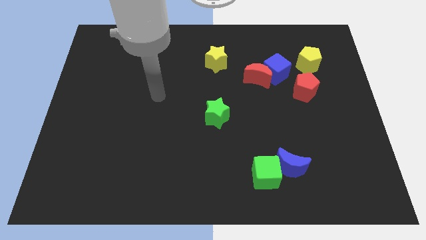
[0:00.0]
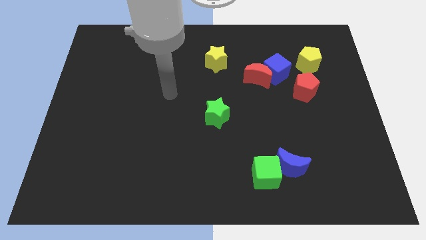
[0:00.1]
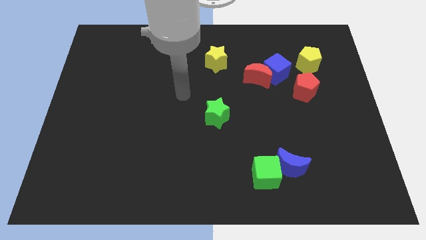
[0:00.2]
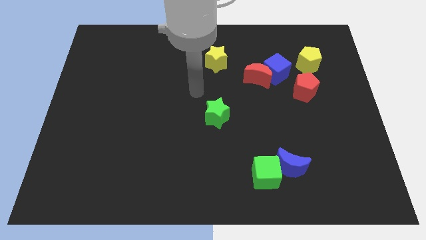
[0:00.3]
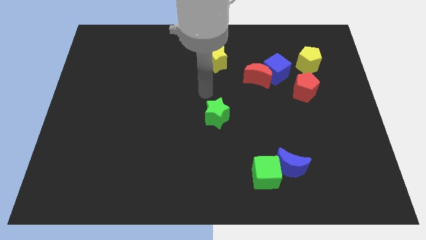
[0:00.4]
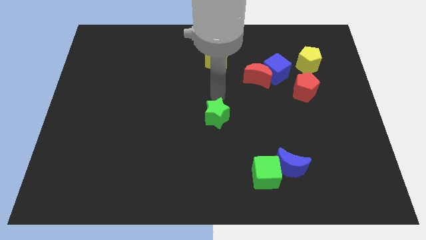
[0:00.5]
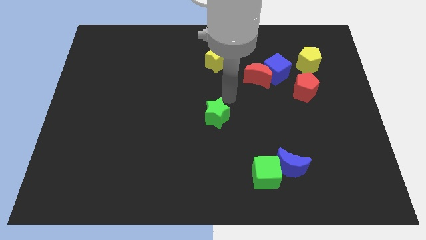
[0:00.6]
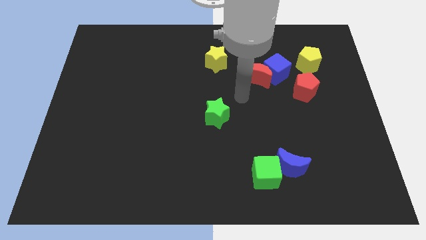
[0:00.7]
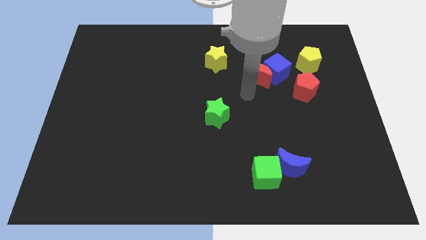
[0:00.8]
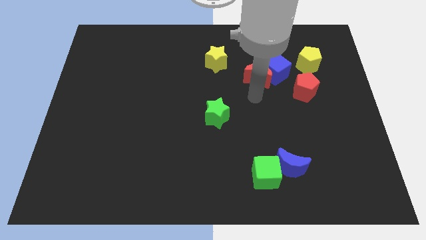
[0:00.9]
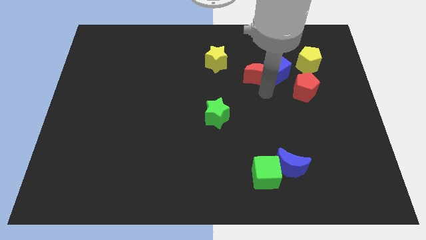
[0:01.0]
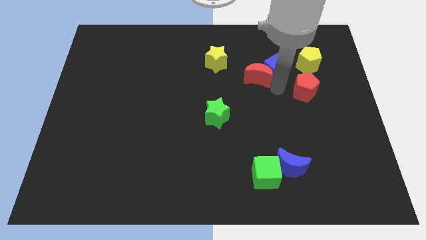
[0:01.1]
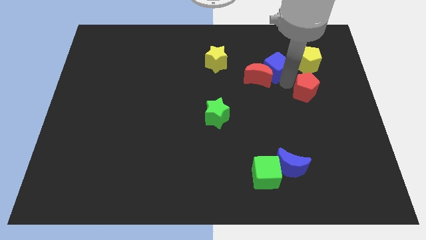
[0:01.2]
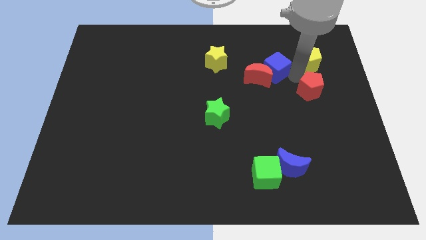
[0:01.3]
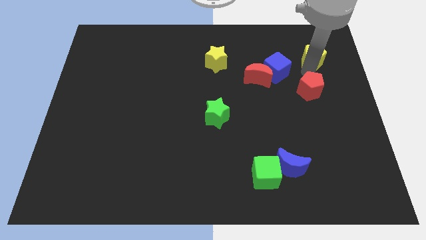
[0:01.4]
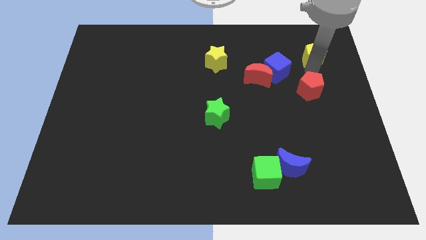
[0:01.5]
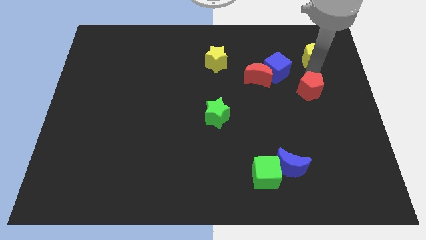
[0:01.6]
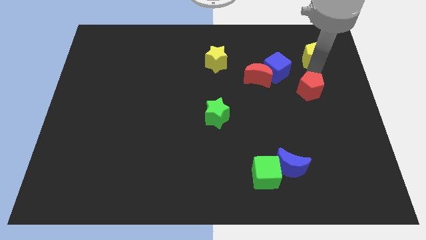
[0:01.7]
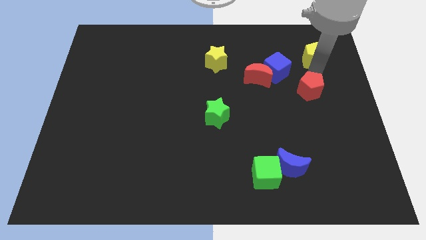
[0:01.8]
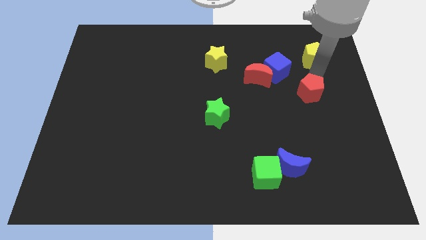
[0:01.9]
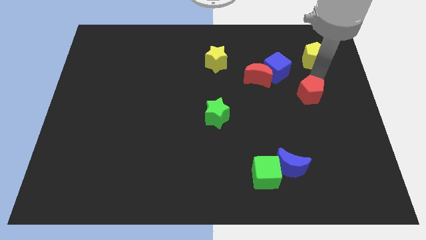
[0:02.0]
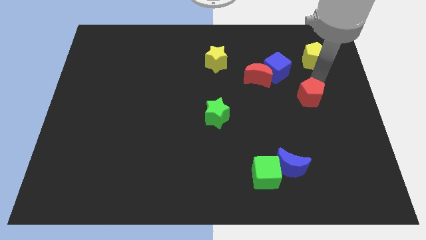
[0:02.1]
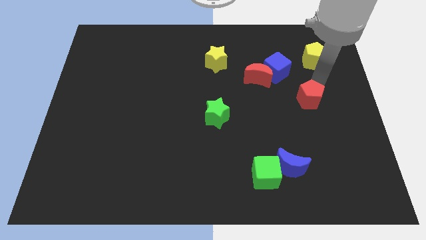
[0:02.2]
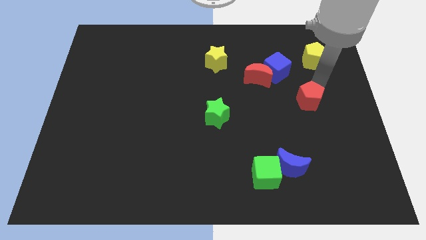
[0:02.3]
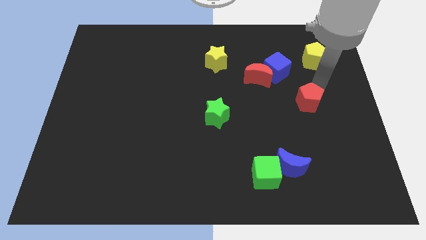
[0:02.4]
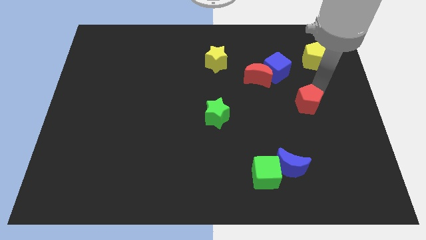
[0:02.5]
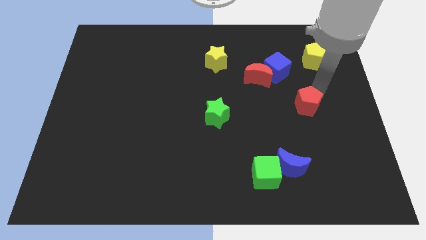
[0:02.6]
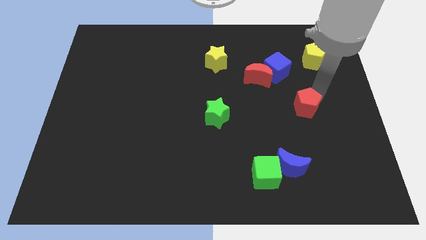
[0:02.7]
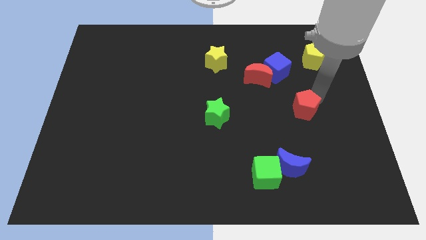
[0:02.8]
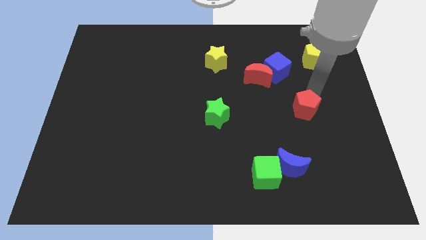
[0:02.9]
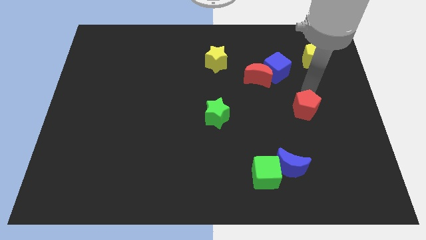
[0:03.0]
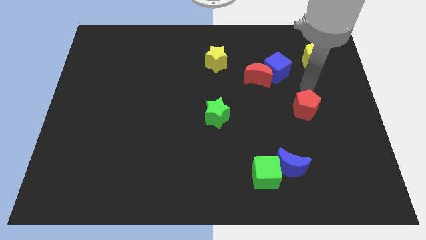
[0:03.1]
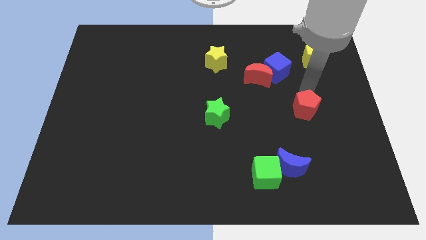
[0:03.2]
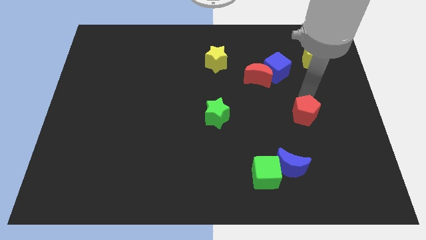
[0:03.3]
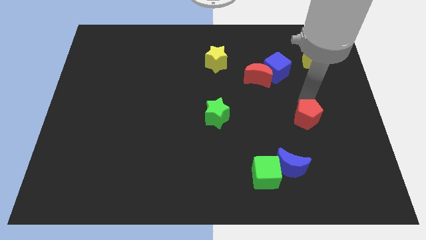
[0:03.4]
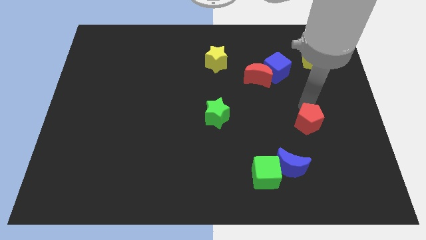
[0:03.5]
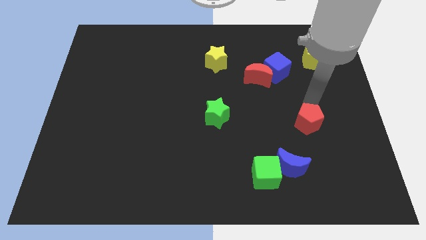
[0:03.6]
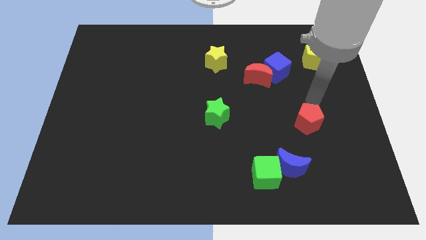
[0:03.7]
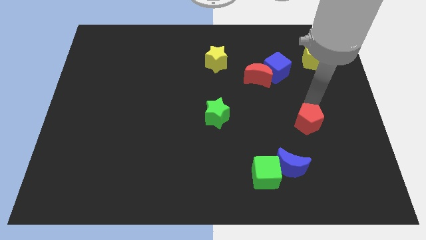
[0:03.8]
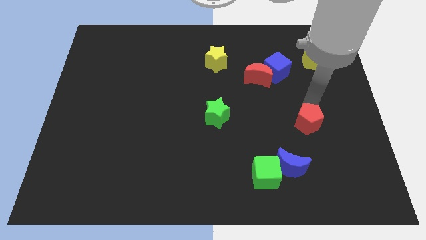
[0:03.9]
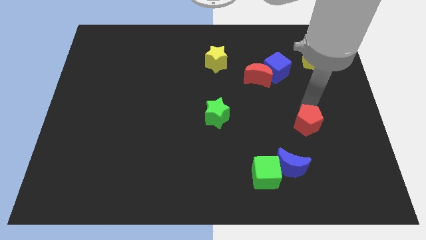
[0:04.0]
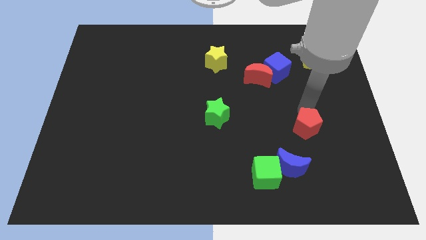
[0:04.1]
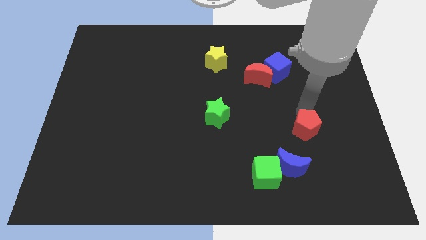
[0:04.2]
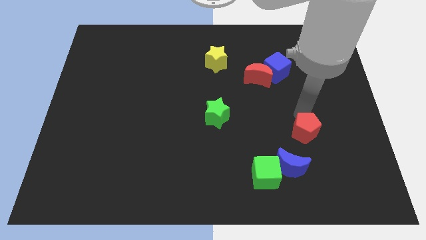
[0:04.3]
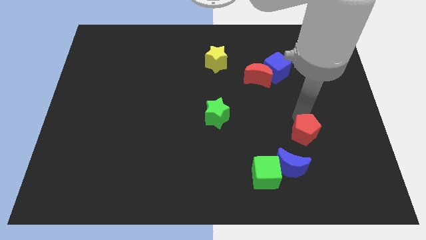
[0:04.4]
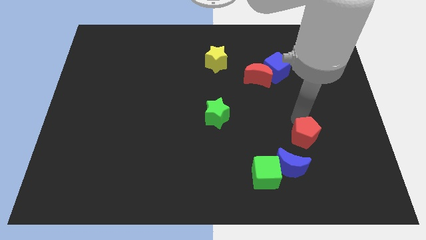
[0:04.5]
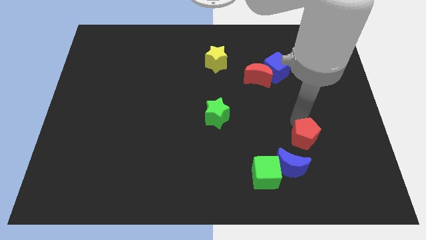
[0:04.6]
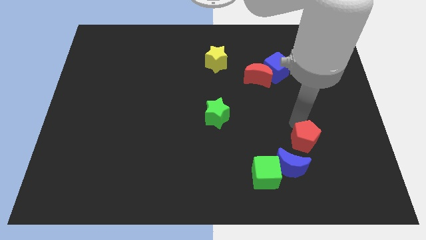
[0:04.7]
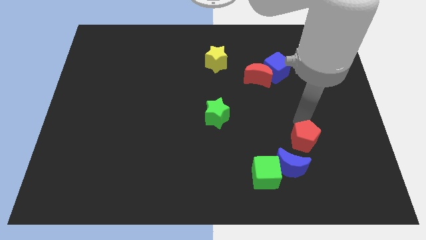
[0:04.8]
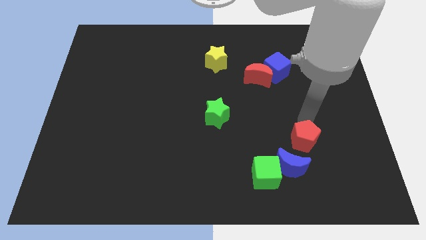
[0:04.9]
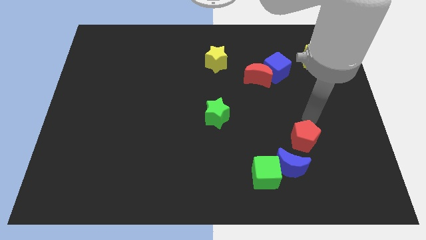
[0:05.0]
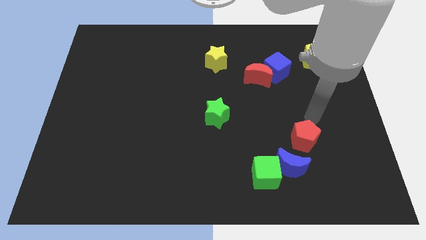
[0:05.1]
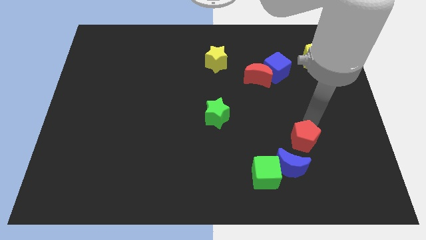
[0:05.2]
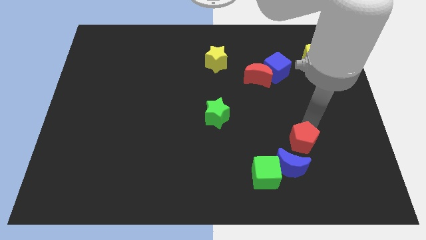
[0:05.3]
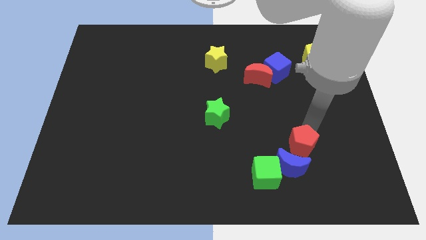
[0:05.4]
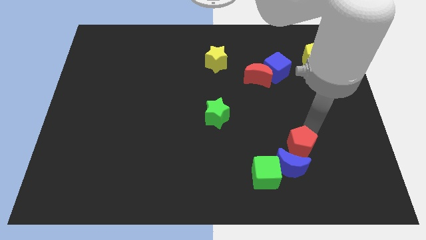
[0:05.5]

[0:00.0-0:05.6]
move the red pentagon to the blue moon

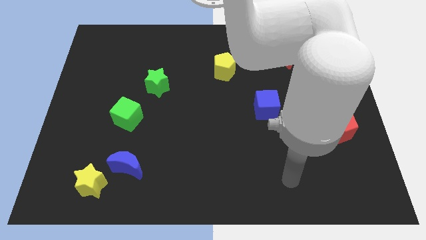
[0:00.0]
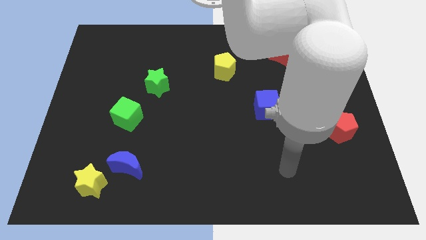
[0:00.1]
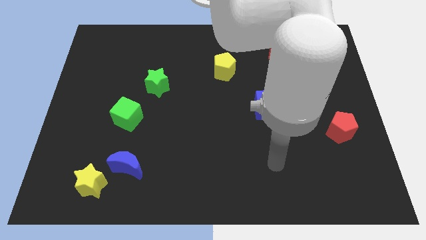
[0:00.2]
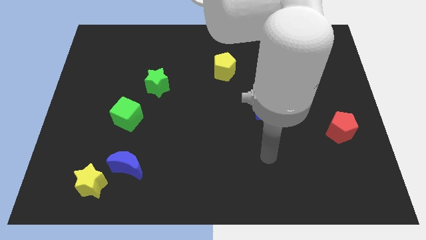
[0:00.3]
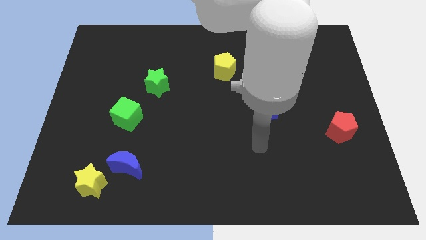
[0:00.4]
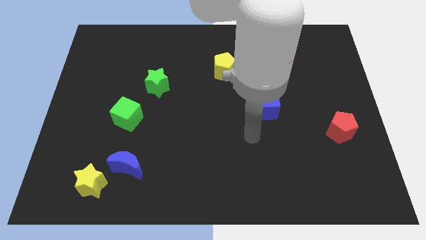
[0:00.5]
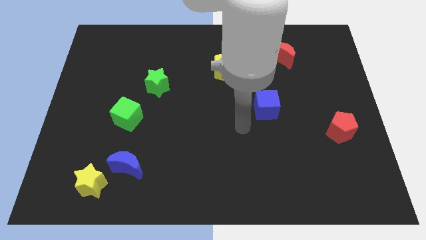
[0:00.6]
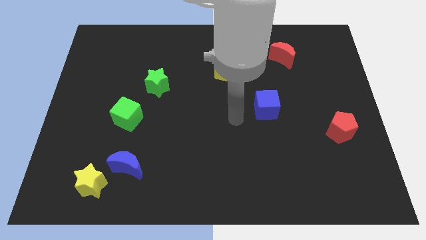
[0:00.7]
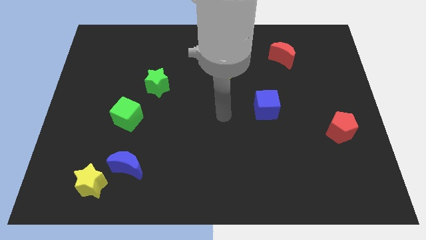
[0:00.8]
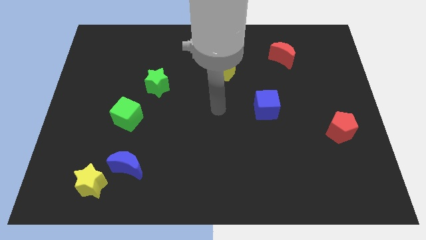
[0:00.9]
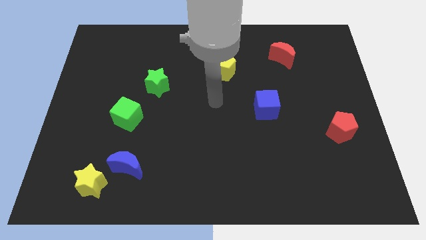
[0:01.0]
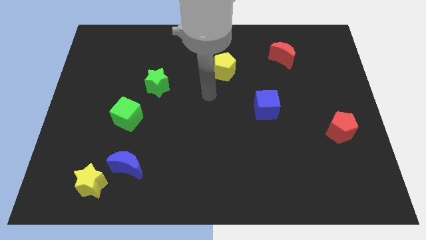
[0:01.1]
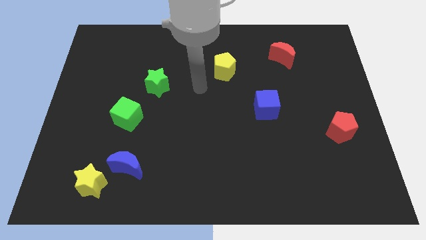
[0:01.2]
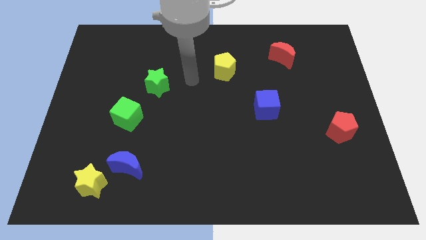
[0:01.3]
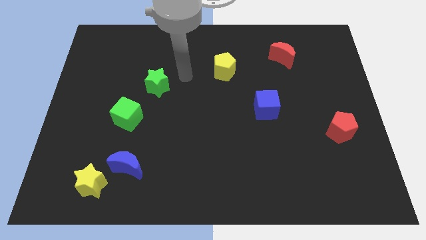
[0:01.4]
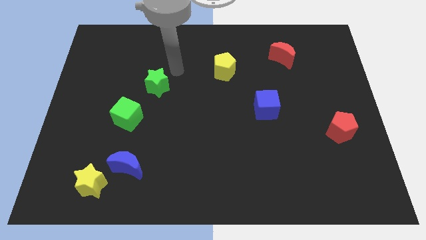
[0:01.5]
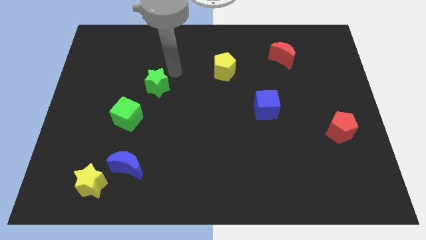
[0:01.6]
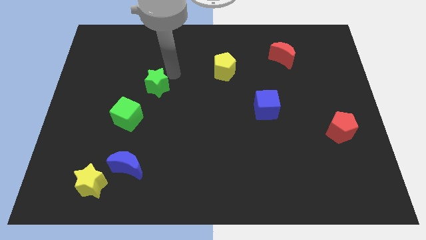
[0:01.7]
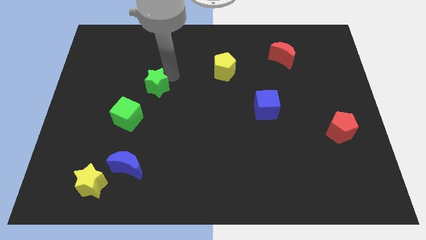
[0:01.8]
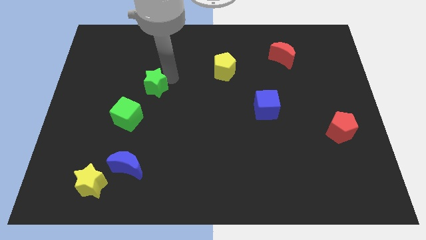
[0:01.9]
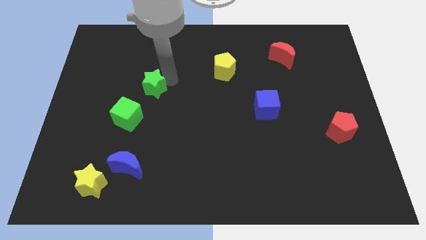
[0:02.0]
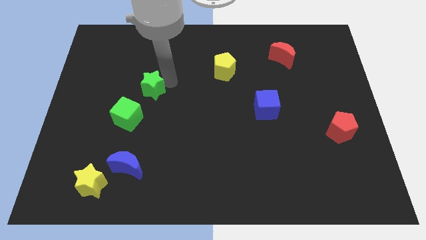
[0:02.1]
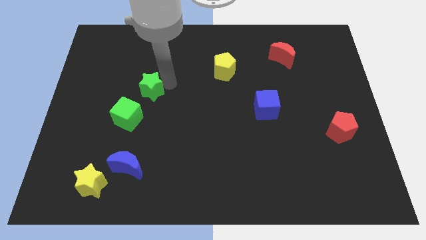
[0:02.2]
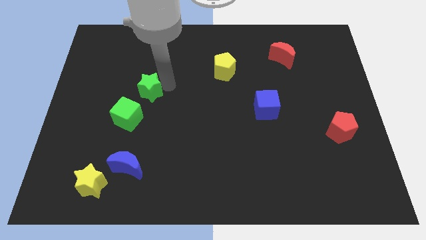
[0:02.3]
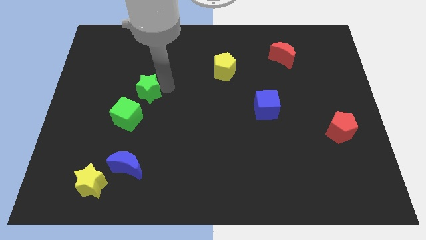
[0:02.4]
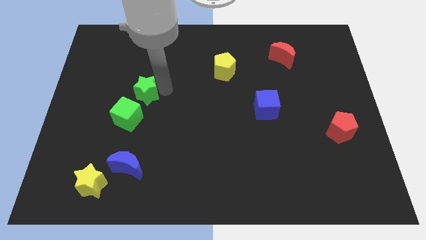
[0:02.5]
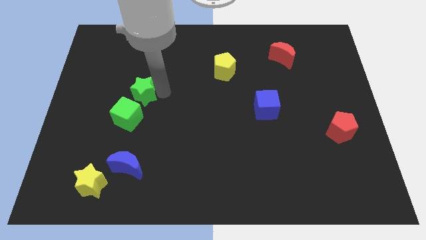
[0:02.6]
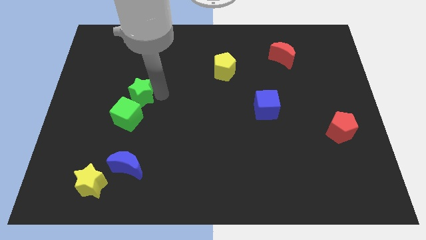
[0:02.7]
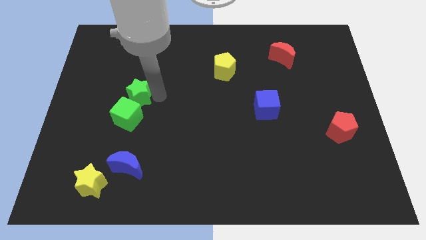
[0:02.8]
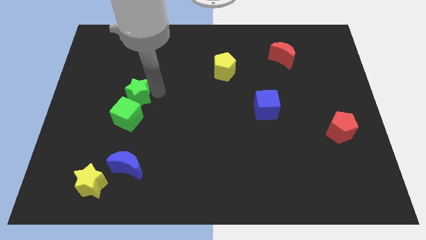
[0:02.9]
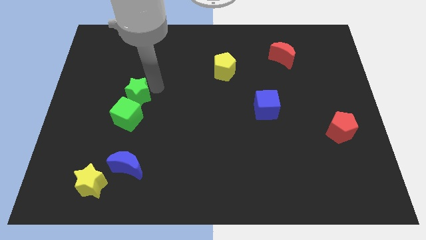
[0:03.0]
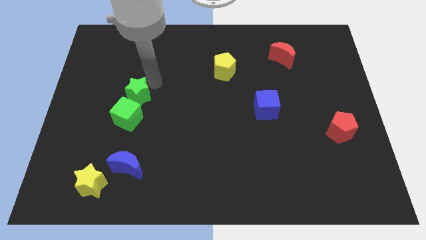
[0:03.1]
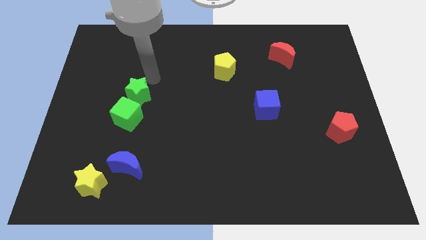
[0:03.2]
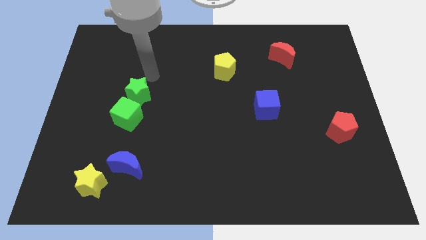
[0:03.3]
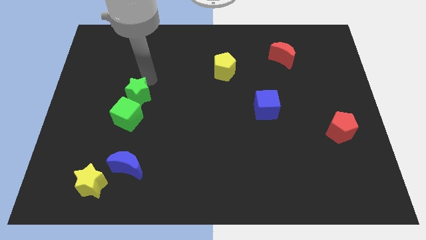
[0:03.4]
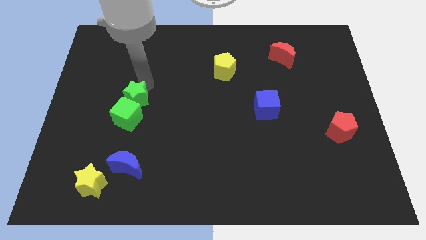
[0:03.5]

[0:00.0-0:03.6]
put the green star towards the green cube
